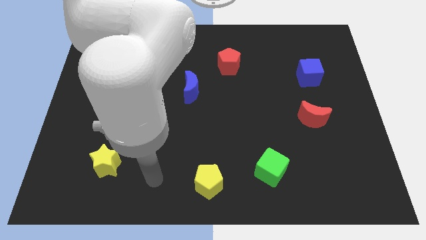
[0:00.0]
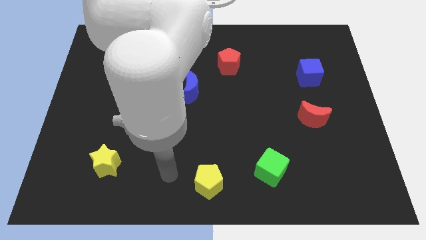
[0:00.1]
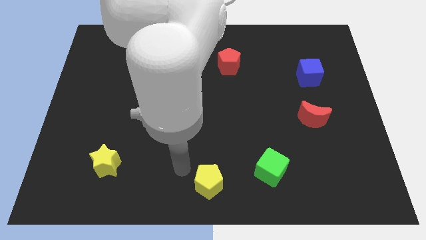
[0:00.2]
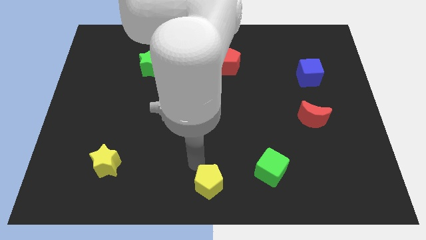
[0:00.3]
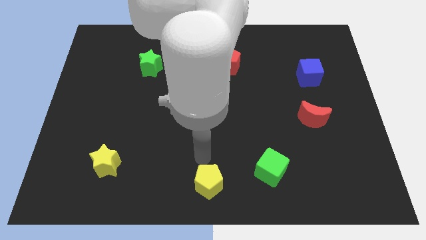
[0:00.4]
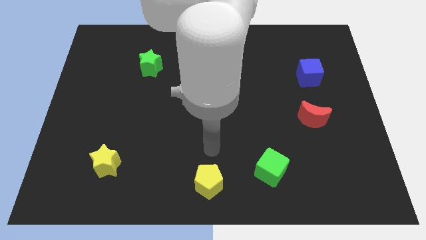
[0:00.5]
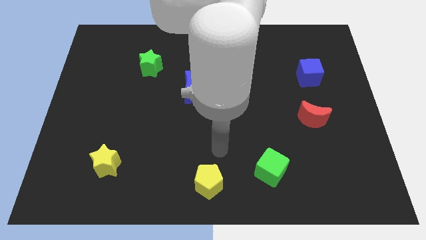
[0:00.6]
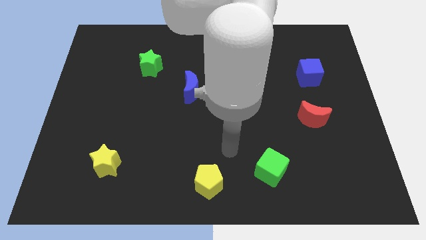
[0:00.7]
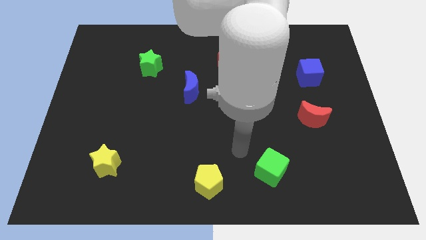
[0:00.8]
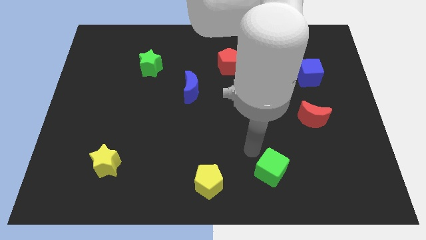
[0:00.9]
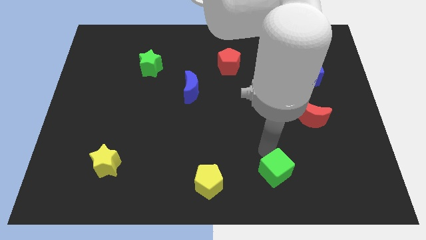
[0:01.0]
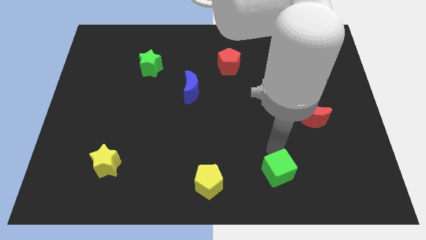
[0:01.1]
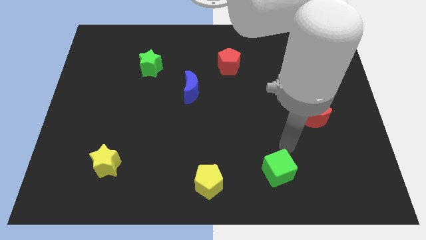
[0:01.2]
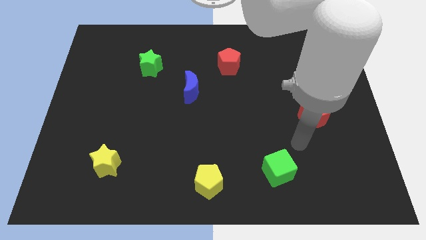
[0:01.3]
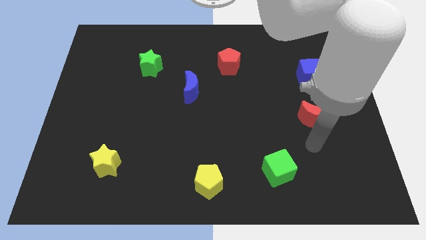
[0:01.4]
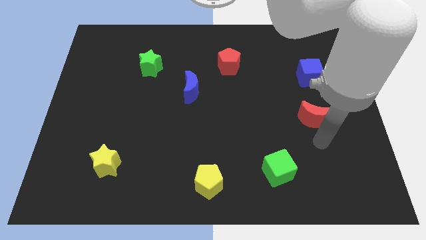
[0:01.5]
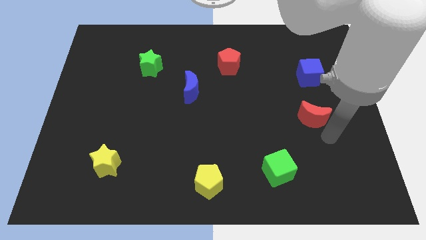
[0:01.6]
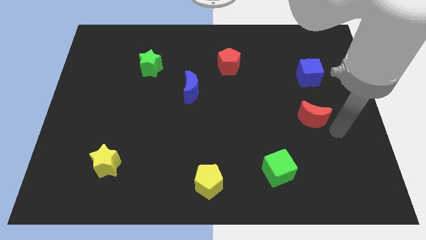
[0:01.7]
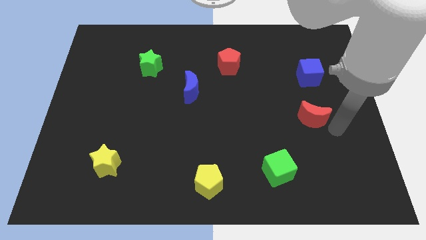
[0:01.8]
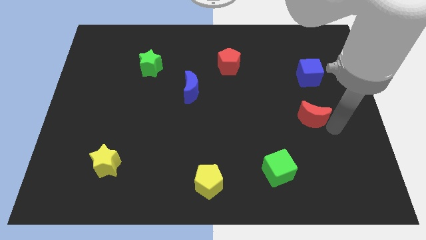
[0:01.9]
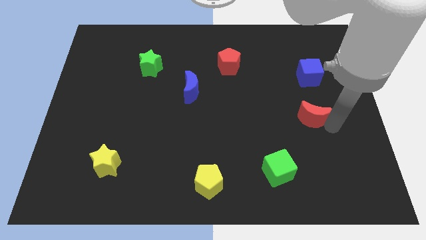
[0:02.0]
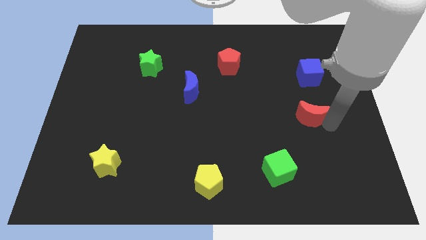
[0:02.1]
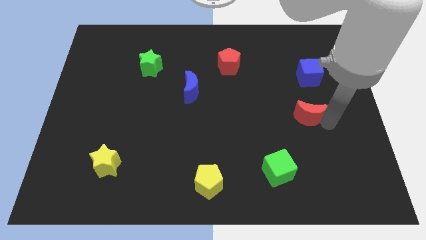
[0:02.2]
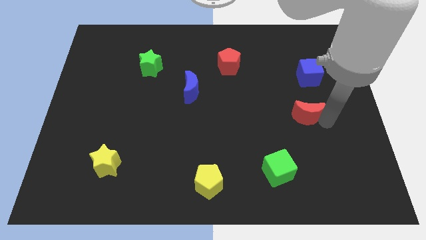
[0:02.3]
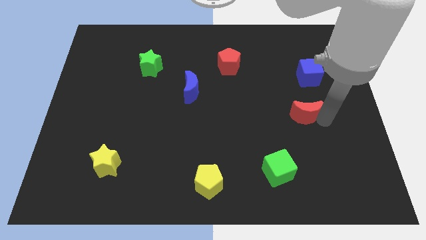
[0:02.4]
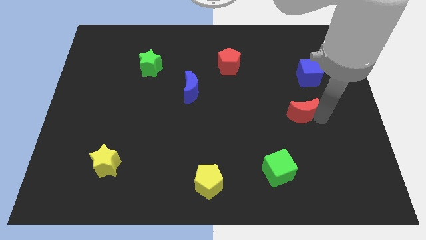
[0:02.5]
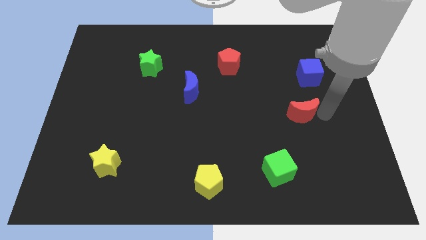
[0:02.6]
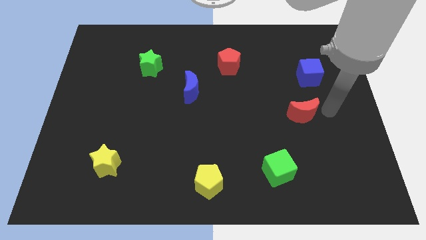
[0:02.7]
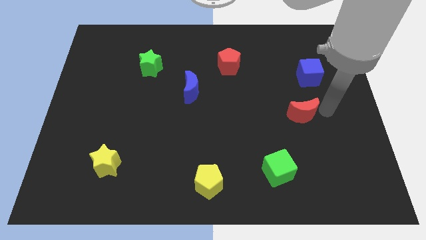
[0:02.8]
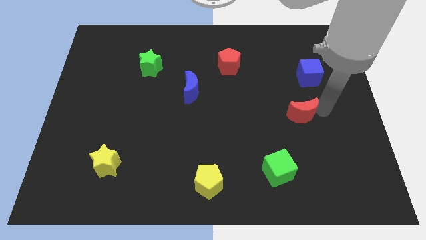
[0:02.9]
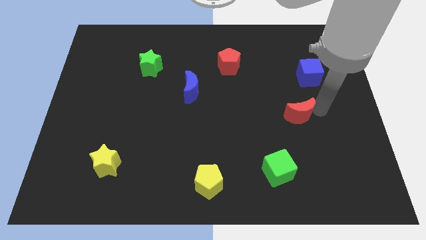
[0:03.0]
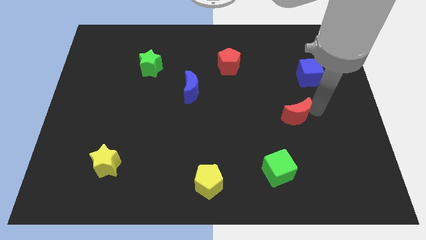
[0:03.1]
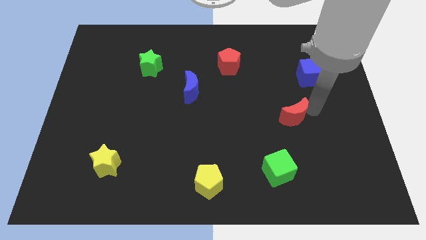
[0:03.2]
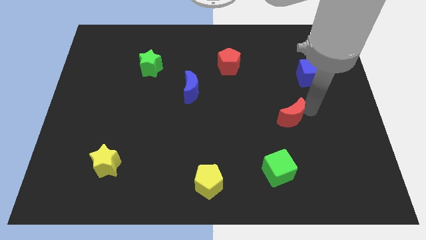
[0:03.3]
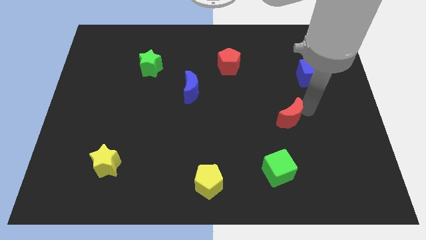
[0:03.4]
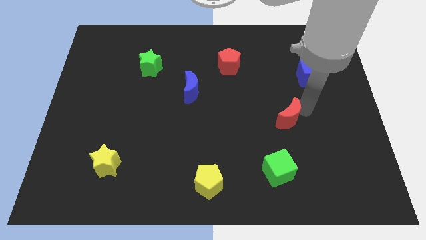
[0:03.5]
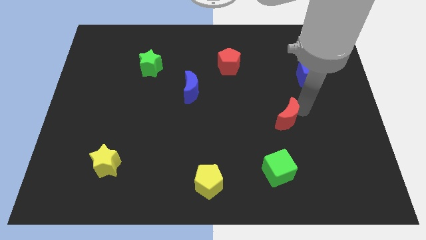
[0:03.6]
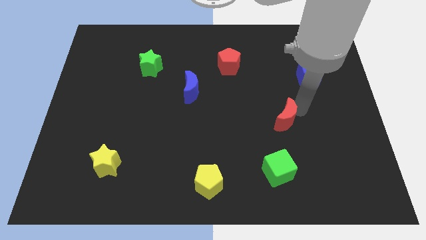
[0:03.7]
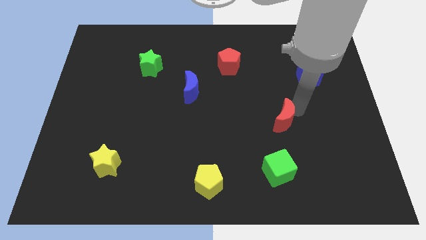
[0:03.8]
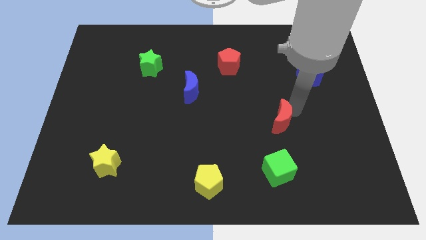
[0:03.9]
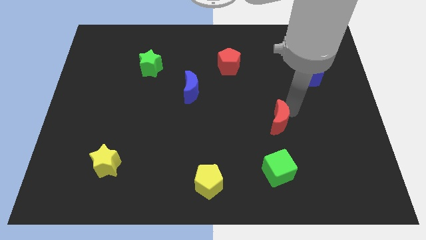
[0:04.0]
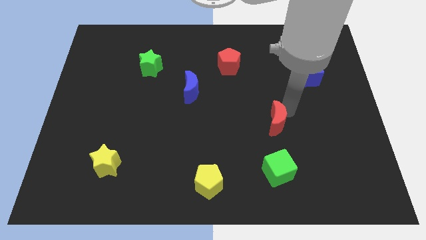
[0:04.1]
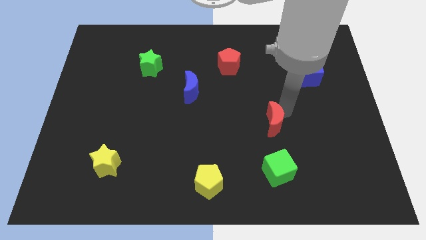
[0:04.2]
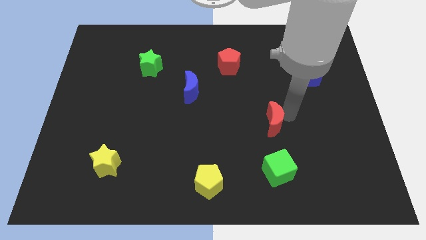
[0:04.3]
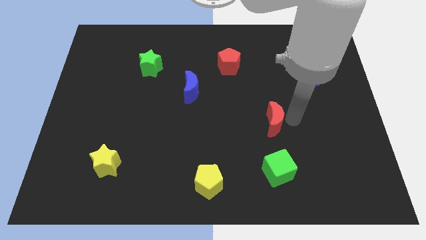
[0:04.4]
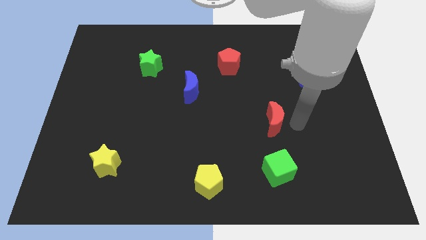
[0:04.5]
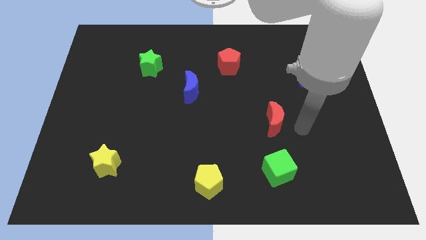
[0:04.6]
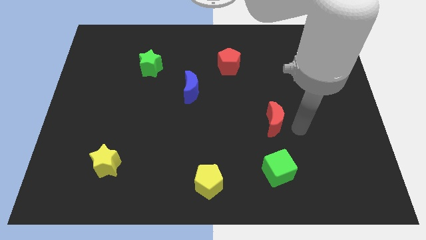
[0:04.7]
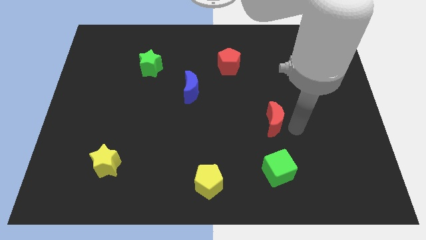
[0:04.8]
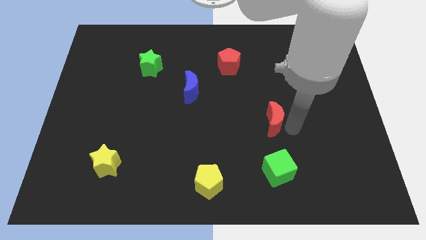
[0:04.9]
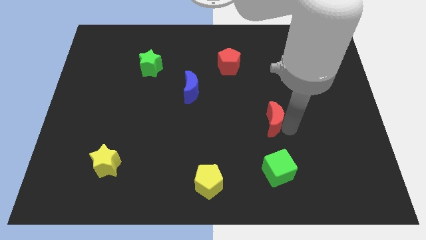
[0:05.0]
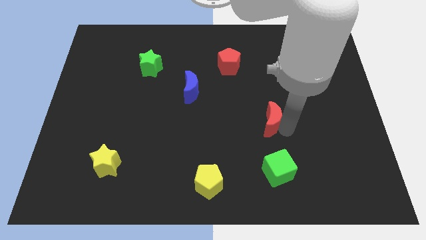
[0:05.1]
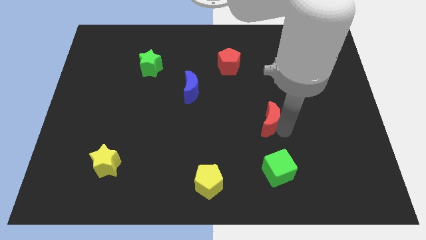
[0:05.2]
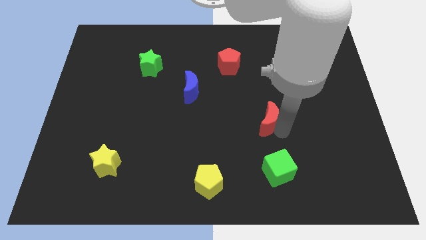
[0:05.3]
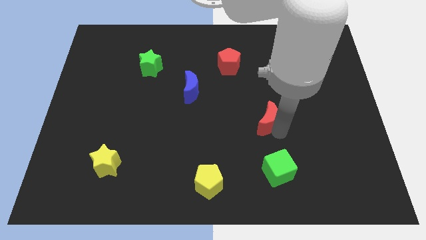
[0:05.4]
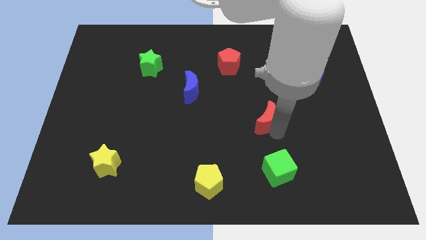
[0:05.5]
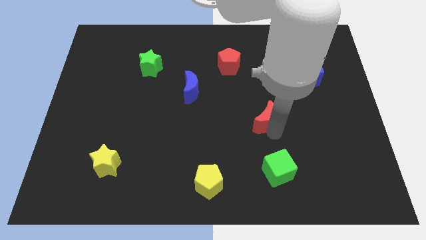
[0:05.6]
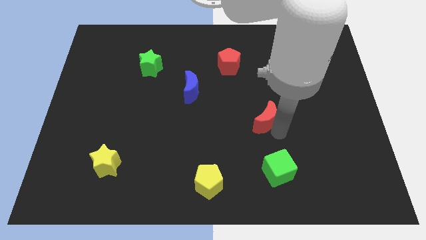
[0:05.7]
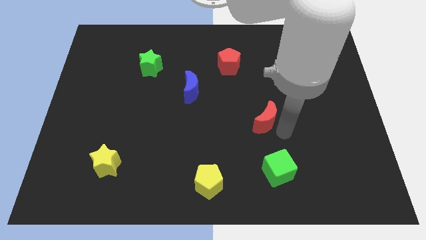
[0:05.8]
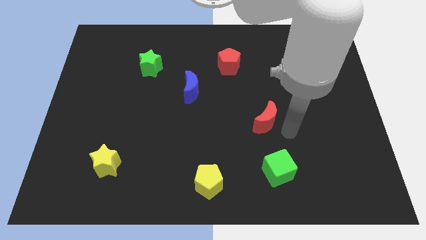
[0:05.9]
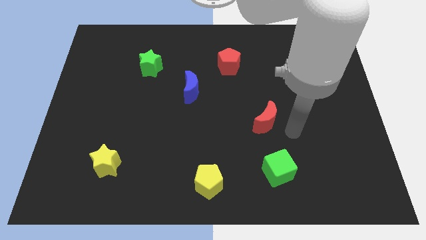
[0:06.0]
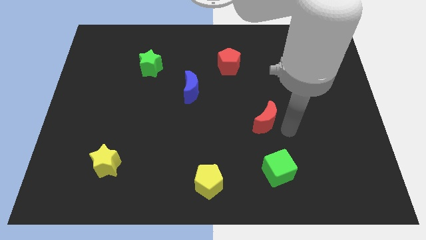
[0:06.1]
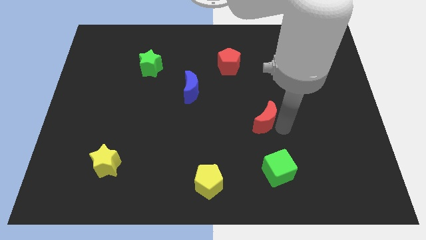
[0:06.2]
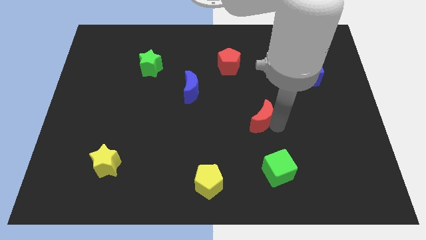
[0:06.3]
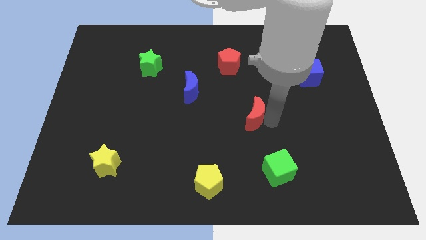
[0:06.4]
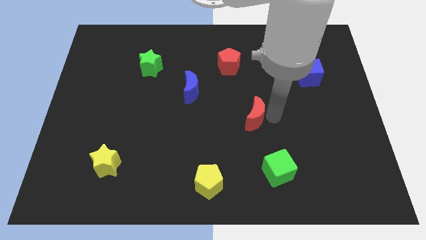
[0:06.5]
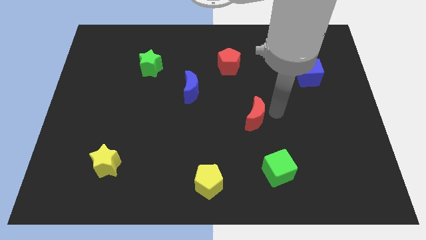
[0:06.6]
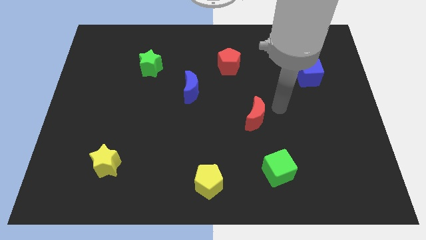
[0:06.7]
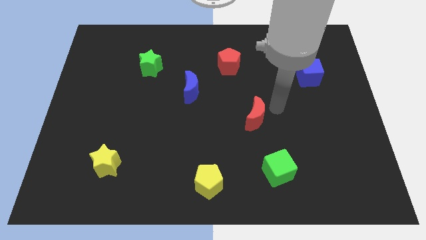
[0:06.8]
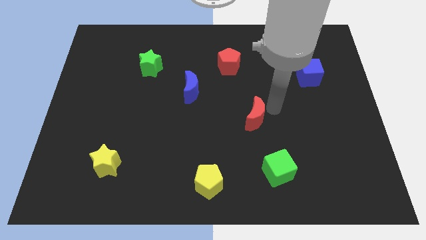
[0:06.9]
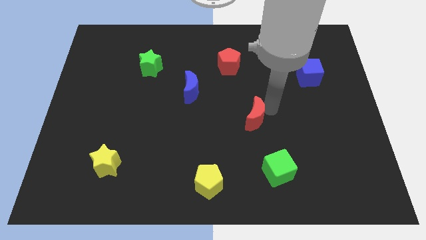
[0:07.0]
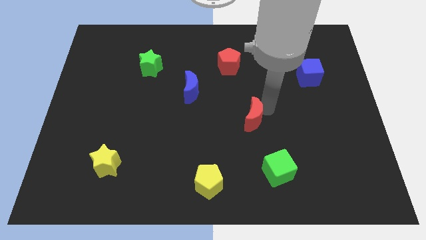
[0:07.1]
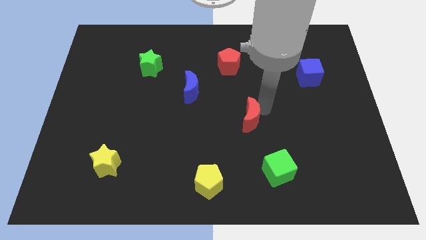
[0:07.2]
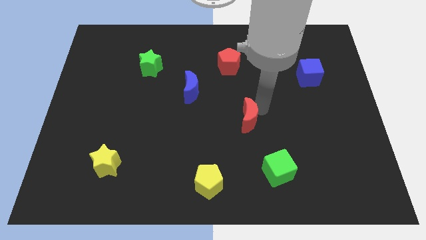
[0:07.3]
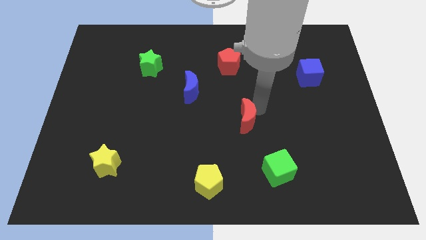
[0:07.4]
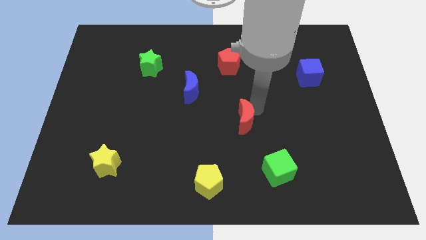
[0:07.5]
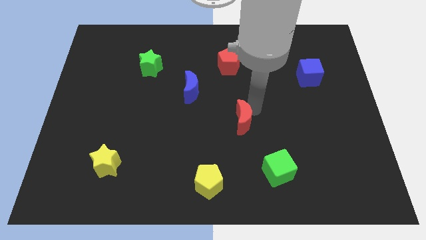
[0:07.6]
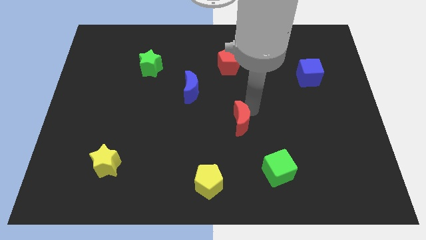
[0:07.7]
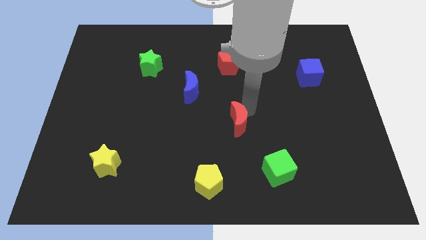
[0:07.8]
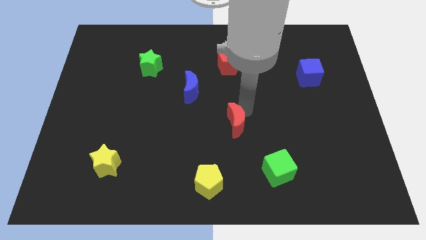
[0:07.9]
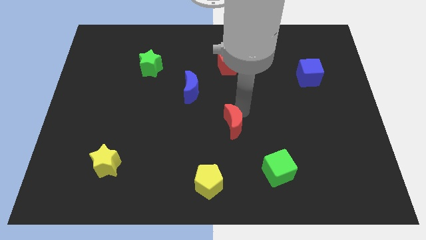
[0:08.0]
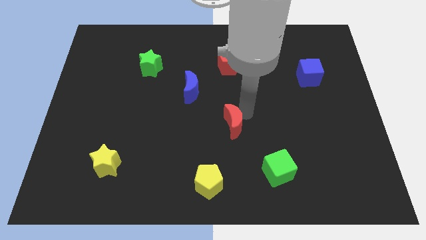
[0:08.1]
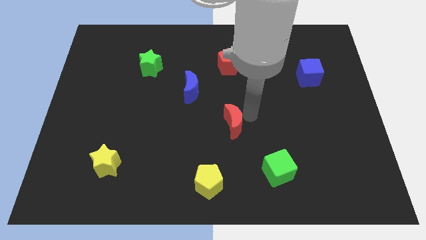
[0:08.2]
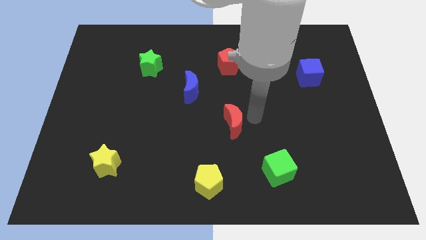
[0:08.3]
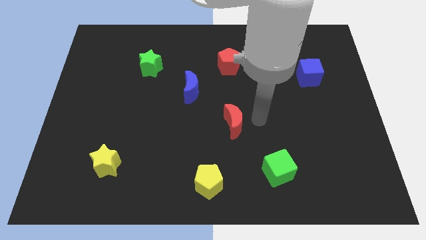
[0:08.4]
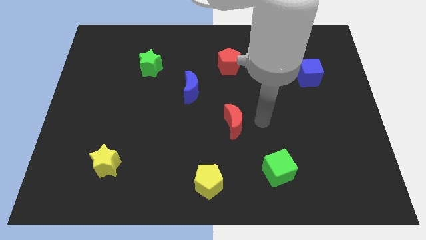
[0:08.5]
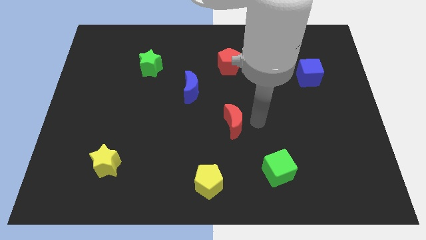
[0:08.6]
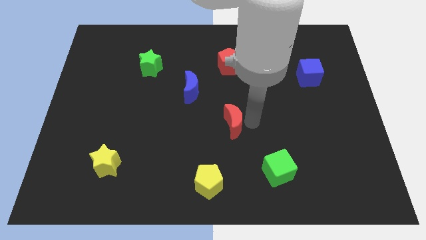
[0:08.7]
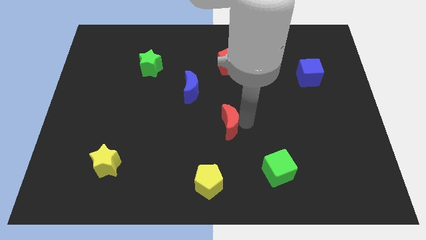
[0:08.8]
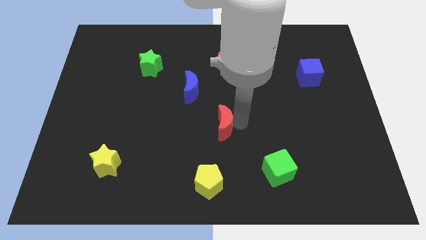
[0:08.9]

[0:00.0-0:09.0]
slide the red moon to the left
